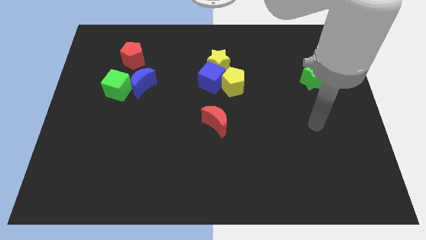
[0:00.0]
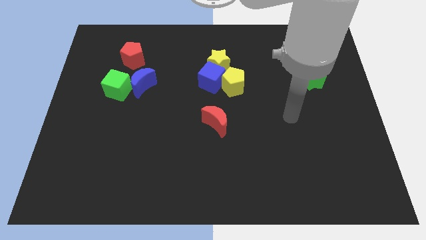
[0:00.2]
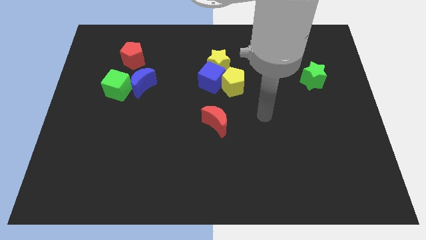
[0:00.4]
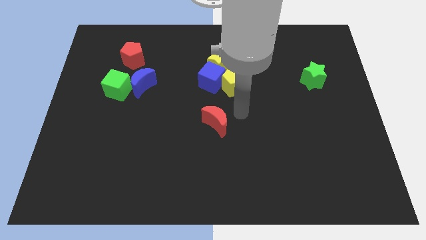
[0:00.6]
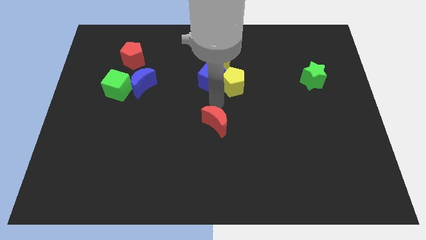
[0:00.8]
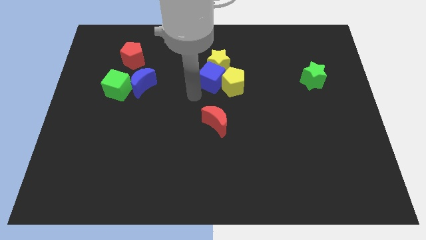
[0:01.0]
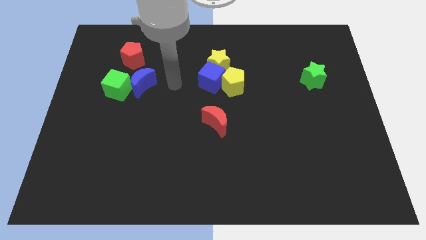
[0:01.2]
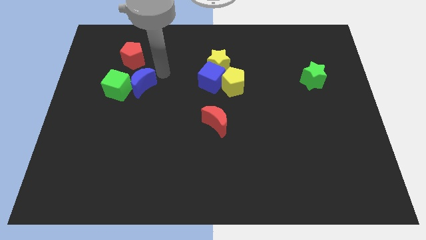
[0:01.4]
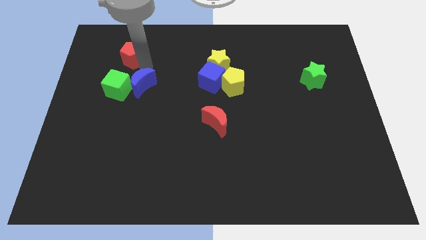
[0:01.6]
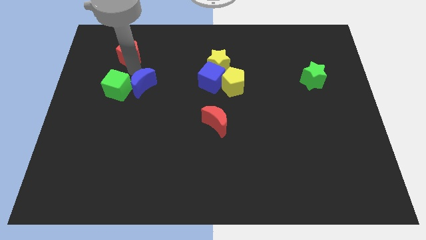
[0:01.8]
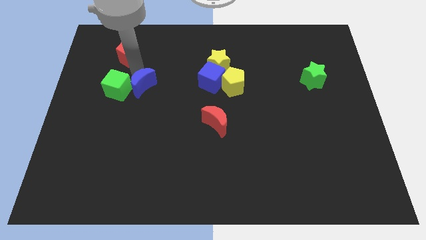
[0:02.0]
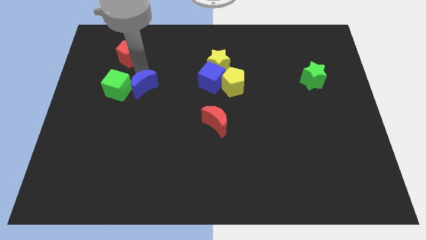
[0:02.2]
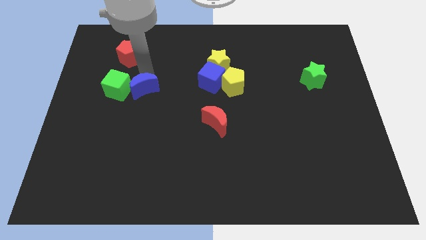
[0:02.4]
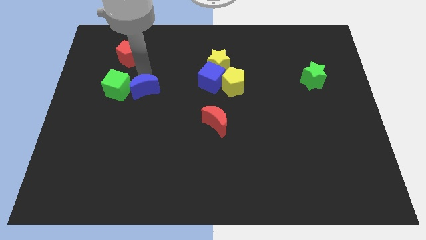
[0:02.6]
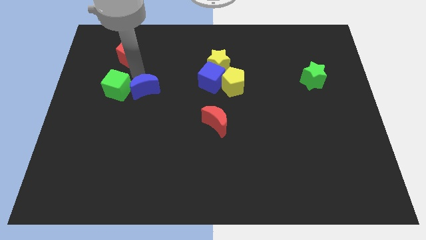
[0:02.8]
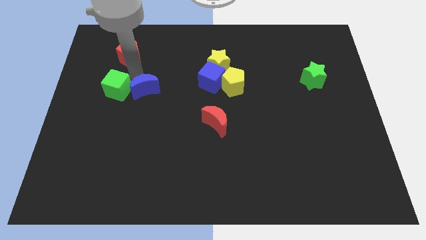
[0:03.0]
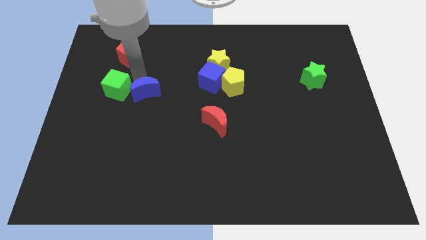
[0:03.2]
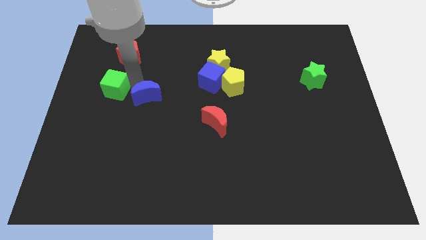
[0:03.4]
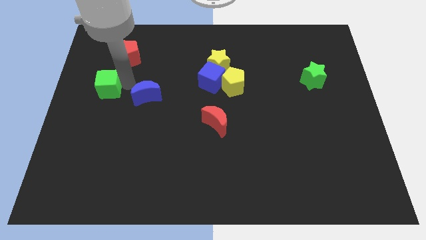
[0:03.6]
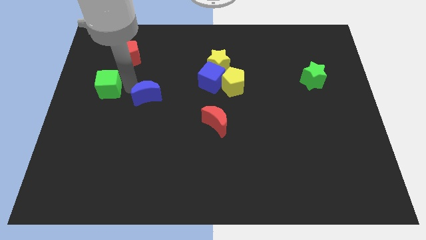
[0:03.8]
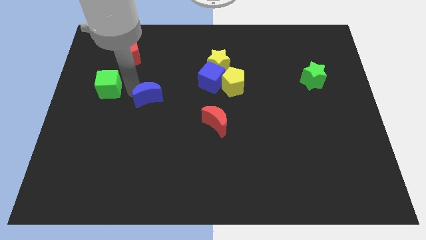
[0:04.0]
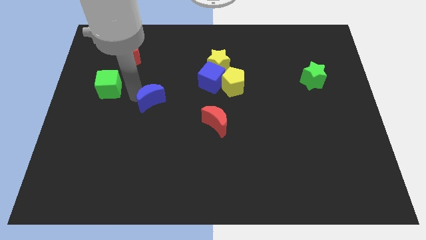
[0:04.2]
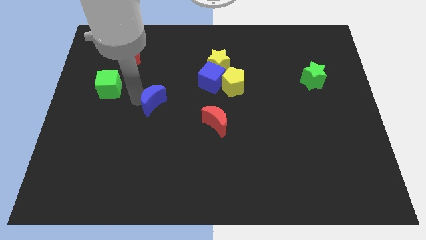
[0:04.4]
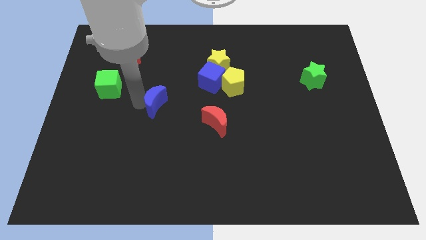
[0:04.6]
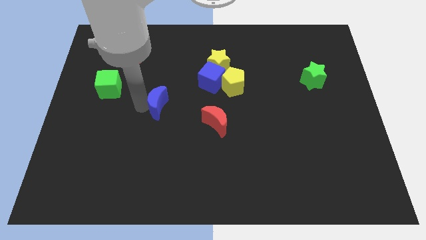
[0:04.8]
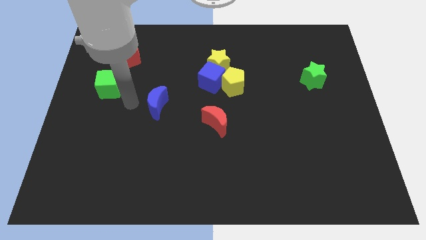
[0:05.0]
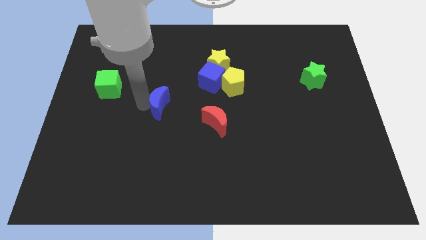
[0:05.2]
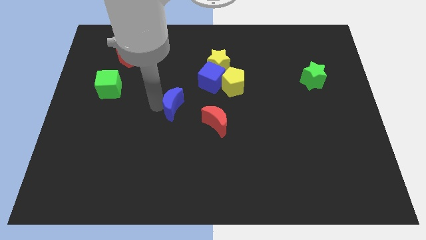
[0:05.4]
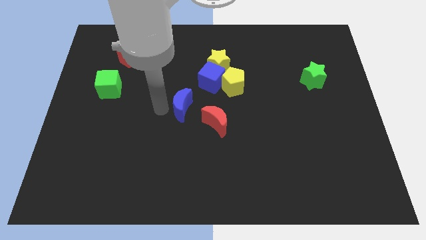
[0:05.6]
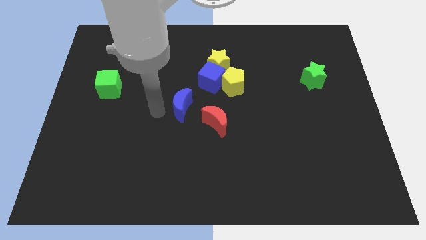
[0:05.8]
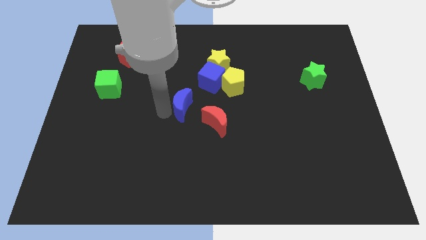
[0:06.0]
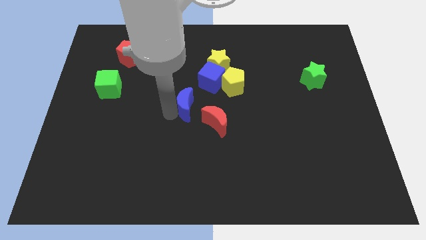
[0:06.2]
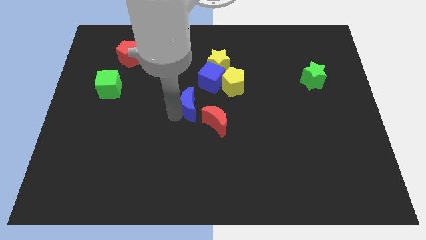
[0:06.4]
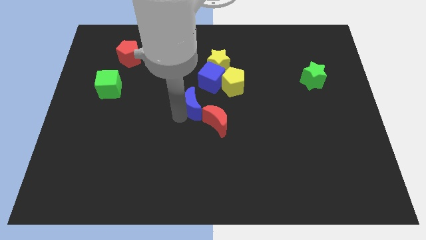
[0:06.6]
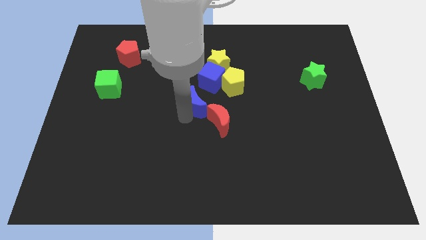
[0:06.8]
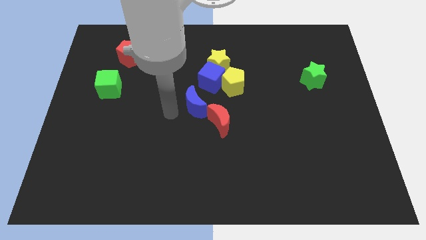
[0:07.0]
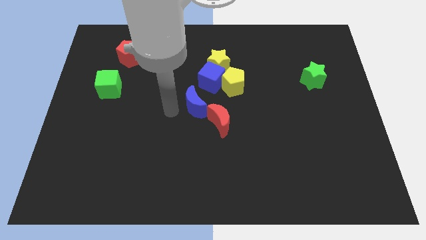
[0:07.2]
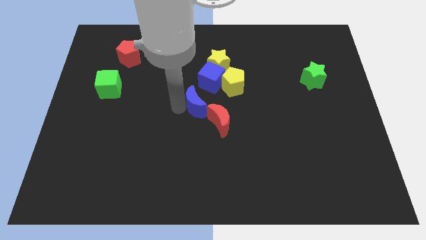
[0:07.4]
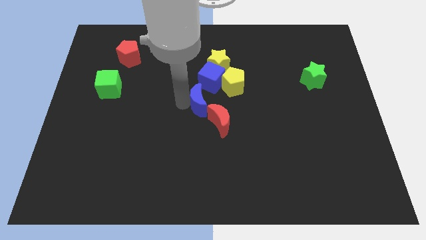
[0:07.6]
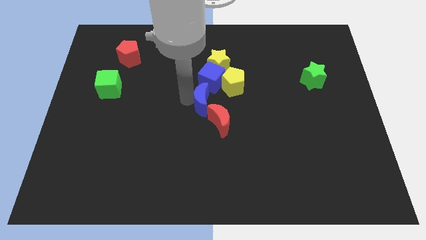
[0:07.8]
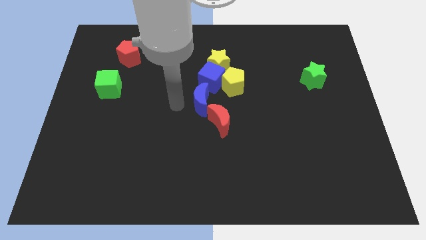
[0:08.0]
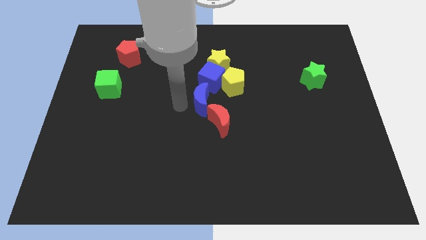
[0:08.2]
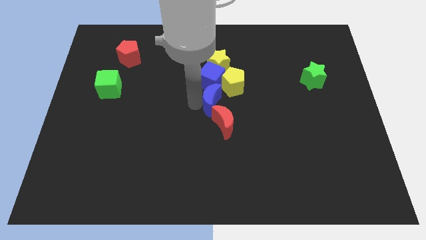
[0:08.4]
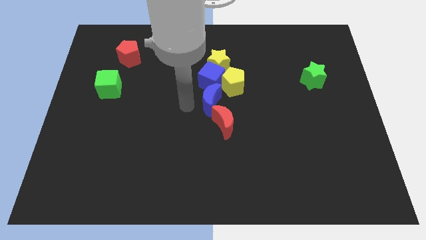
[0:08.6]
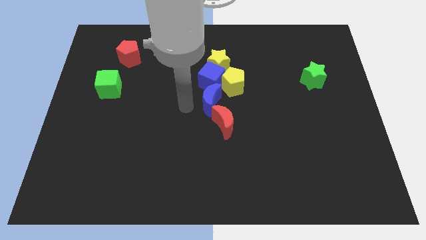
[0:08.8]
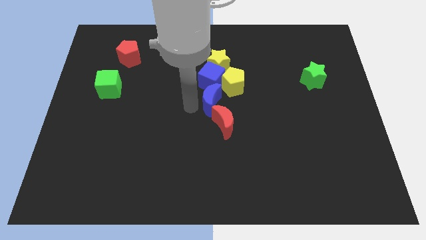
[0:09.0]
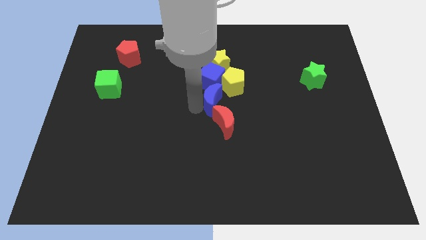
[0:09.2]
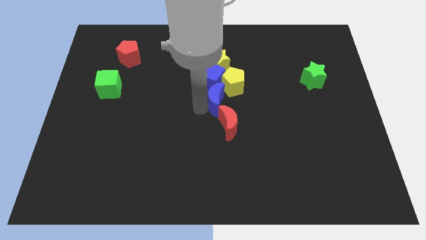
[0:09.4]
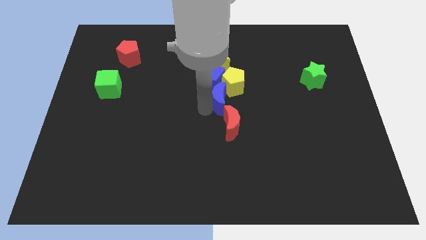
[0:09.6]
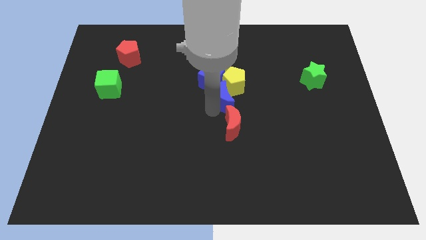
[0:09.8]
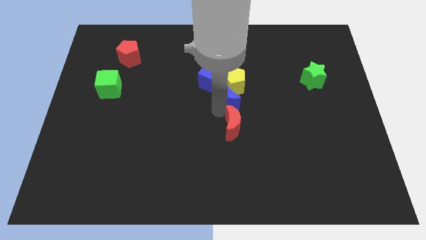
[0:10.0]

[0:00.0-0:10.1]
move the blue moon to the right

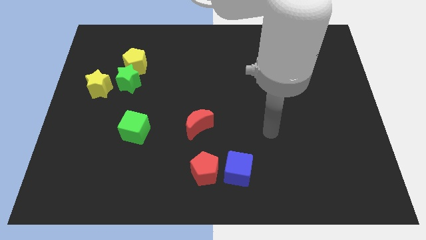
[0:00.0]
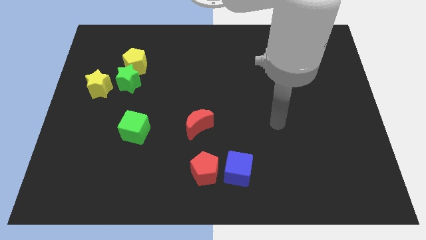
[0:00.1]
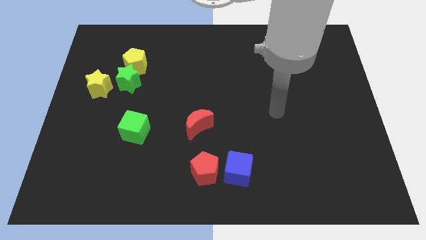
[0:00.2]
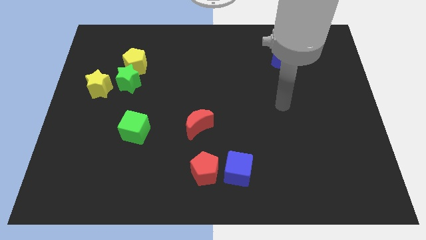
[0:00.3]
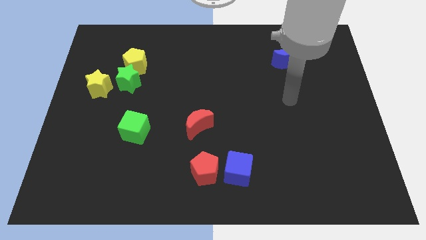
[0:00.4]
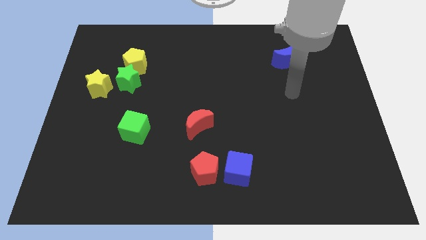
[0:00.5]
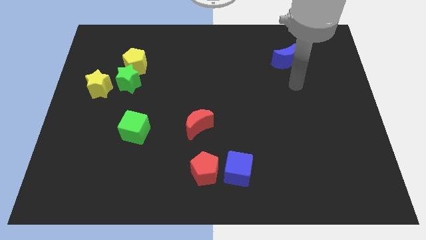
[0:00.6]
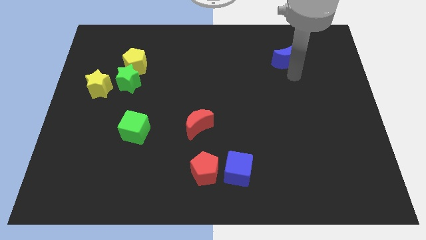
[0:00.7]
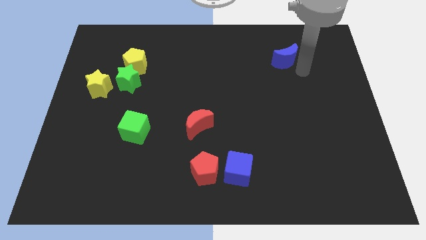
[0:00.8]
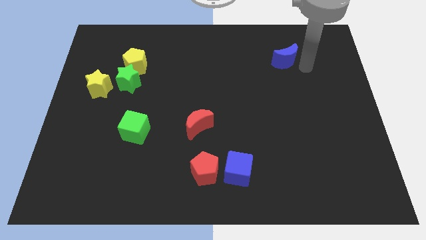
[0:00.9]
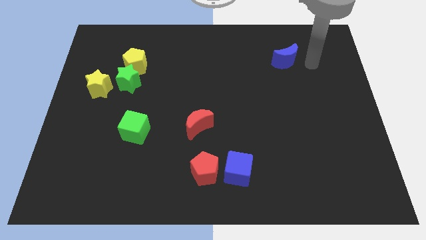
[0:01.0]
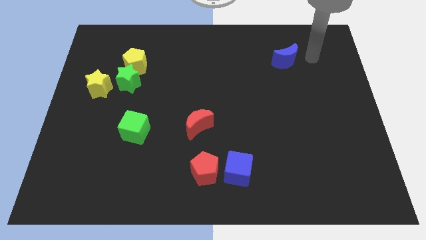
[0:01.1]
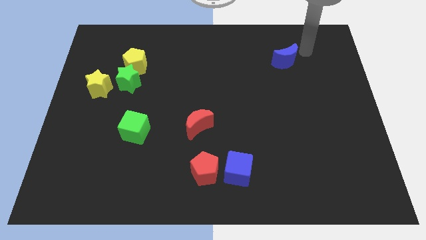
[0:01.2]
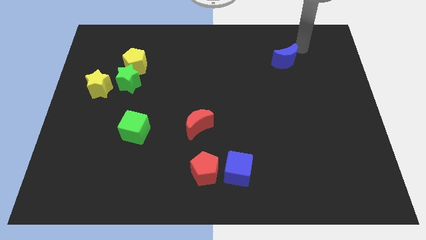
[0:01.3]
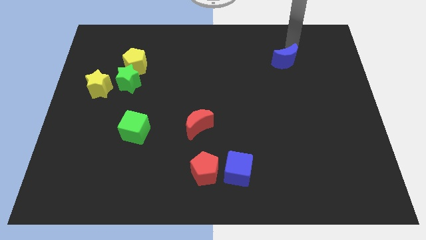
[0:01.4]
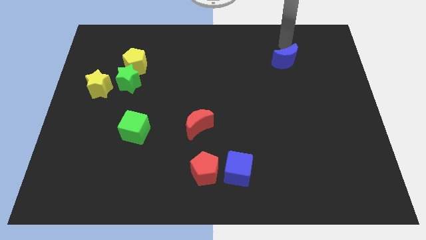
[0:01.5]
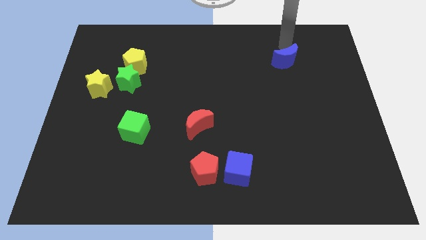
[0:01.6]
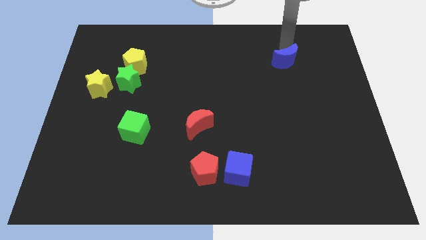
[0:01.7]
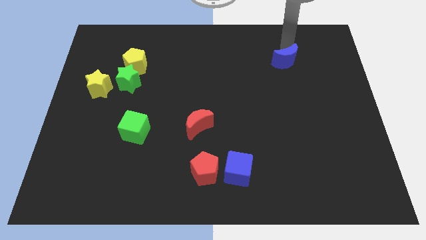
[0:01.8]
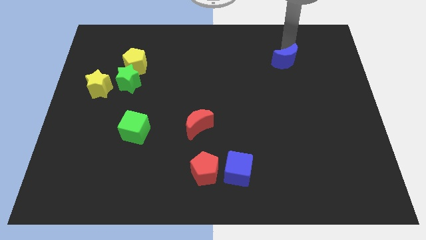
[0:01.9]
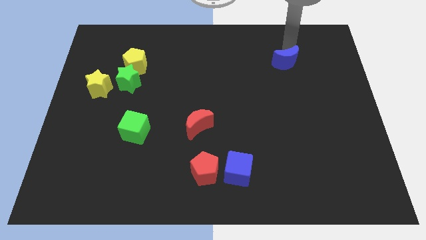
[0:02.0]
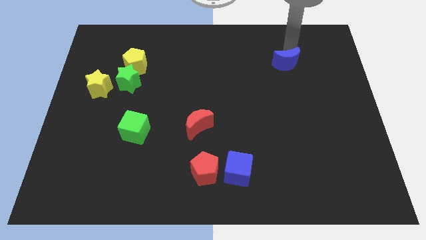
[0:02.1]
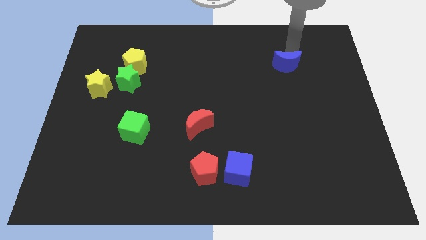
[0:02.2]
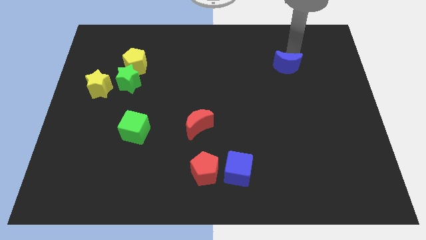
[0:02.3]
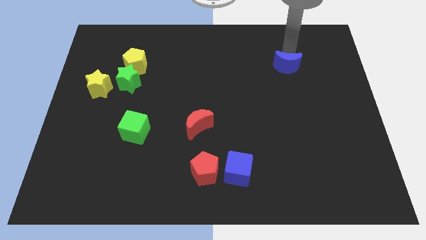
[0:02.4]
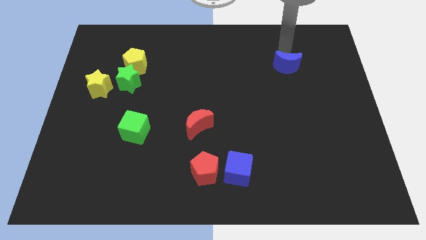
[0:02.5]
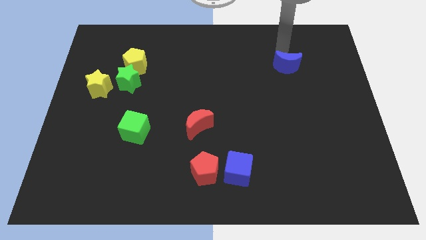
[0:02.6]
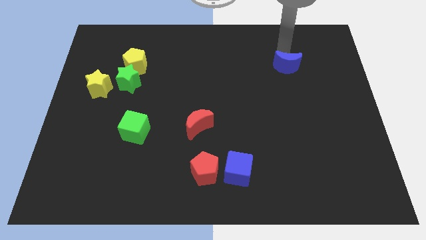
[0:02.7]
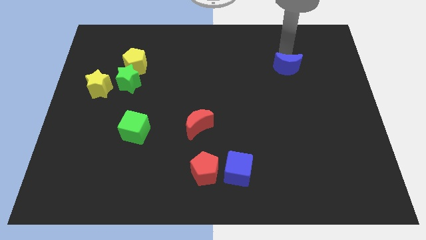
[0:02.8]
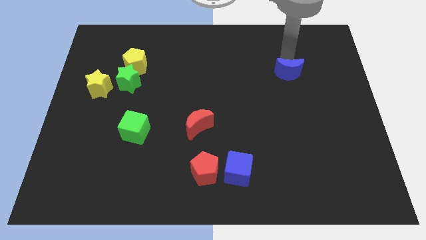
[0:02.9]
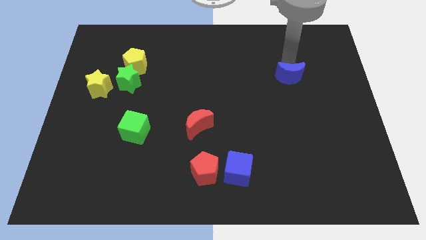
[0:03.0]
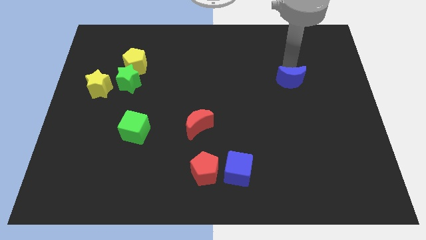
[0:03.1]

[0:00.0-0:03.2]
move the blue moon downwards slightly

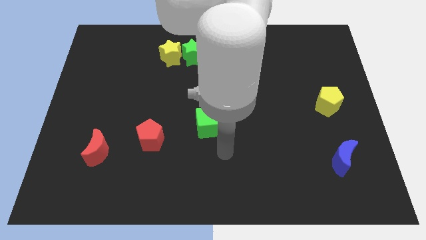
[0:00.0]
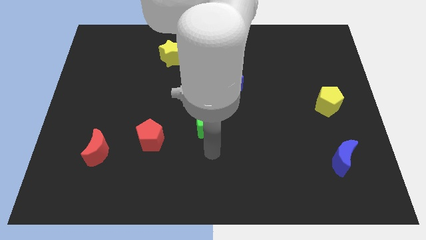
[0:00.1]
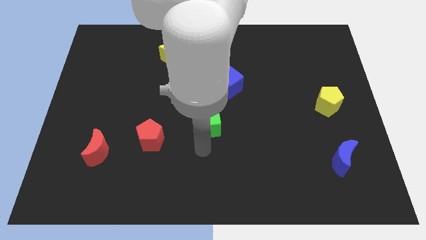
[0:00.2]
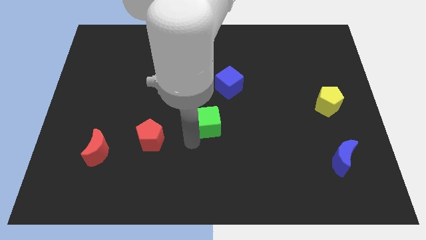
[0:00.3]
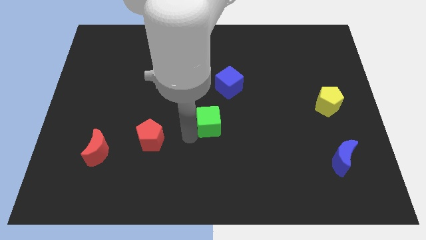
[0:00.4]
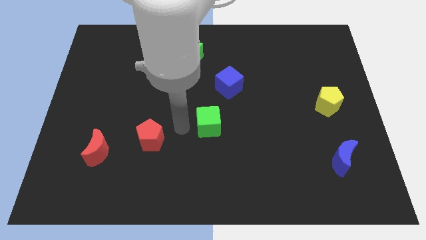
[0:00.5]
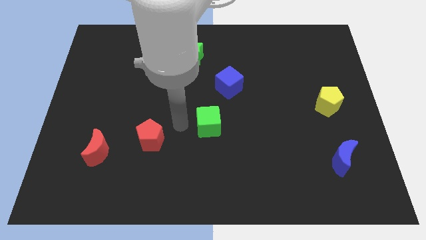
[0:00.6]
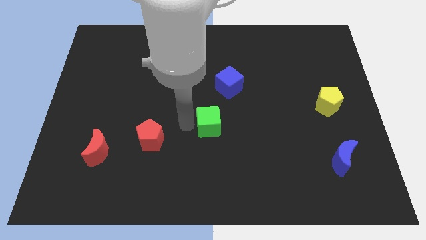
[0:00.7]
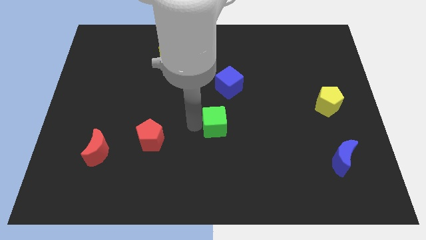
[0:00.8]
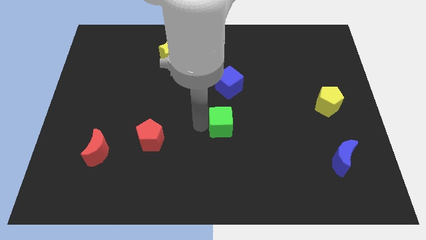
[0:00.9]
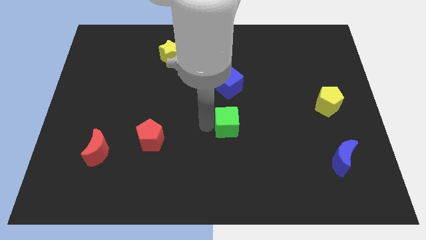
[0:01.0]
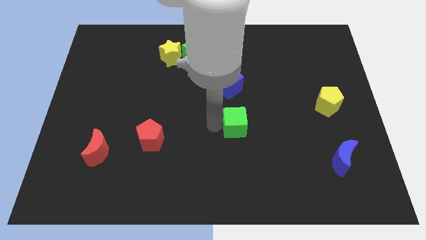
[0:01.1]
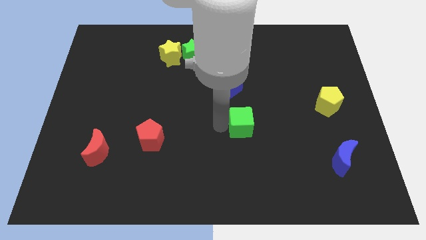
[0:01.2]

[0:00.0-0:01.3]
push the green cube right a little
